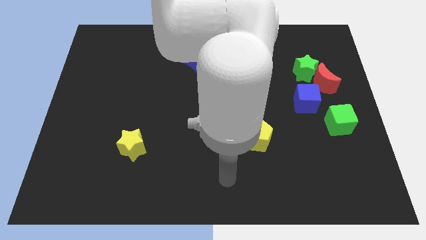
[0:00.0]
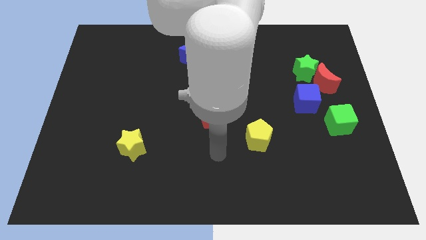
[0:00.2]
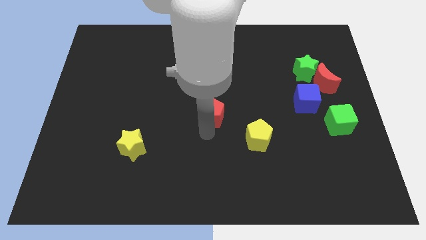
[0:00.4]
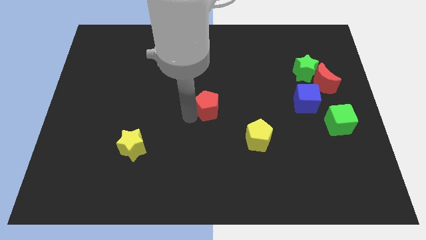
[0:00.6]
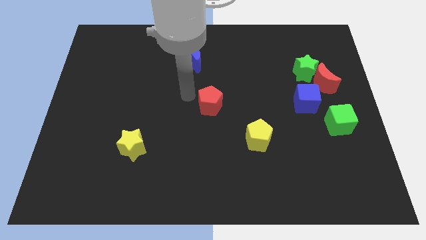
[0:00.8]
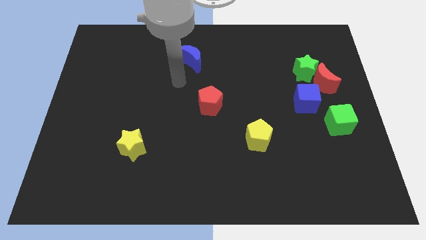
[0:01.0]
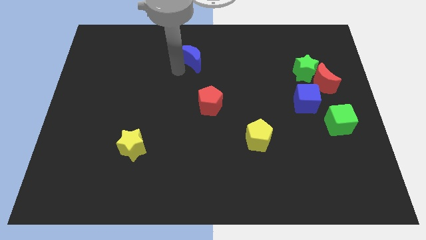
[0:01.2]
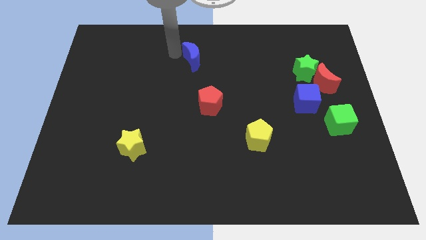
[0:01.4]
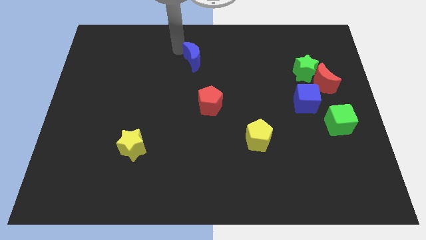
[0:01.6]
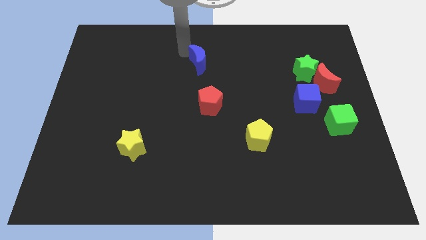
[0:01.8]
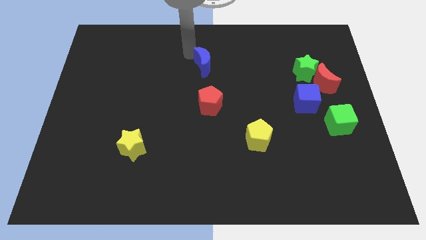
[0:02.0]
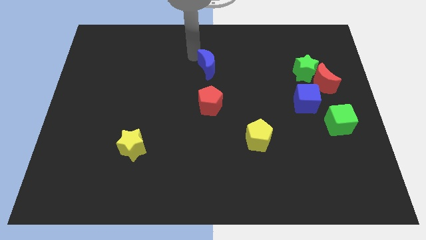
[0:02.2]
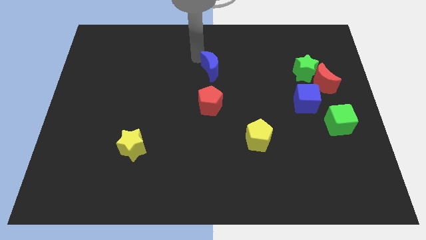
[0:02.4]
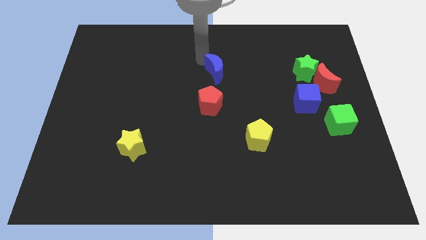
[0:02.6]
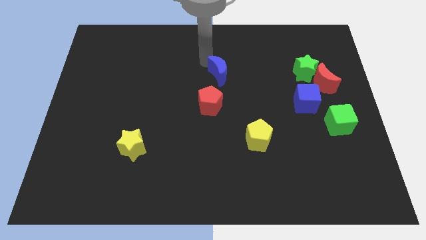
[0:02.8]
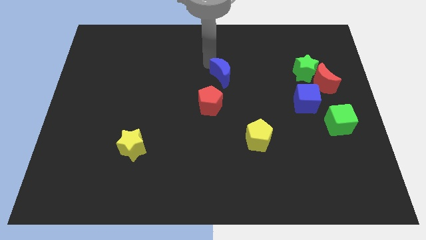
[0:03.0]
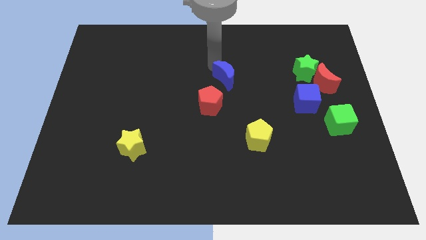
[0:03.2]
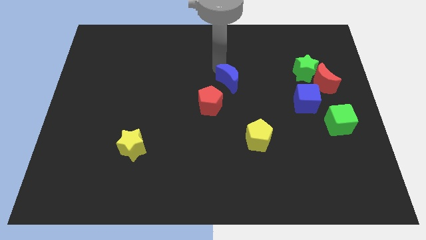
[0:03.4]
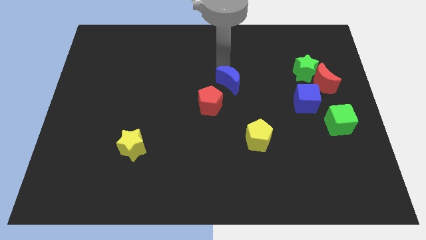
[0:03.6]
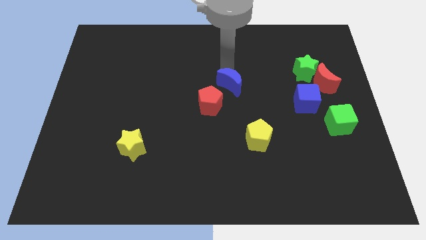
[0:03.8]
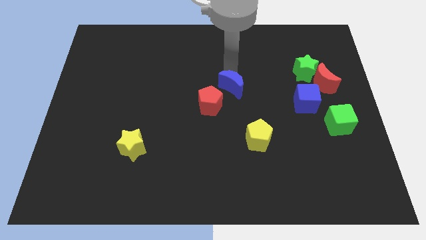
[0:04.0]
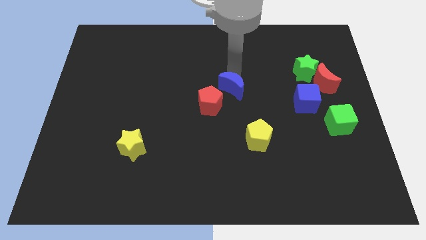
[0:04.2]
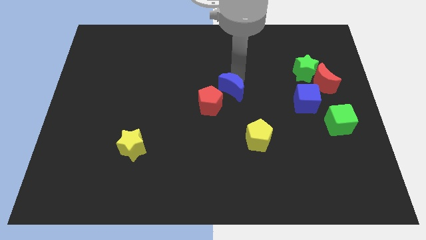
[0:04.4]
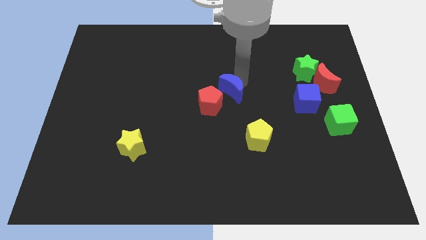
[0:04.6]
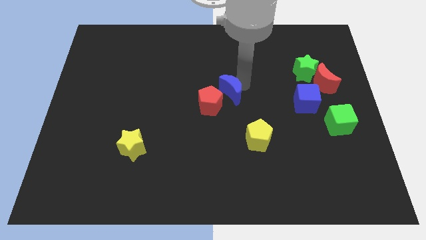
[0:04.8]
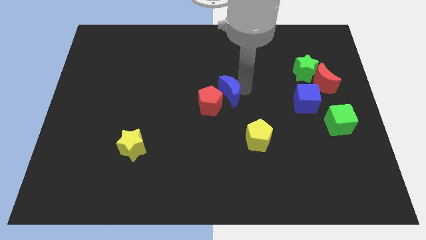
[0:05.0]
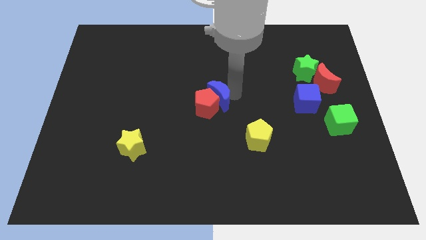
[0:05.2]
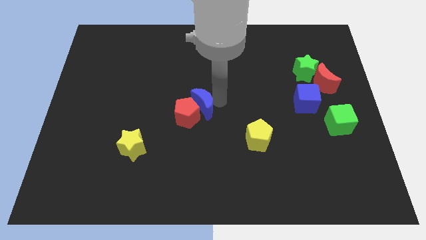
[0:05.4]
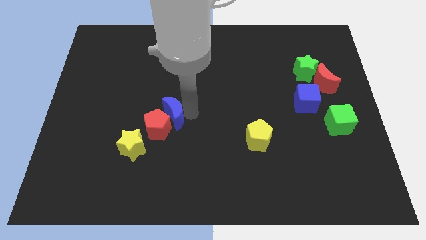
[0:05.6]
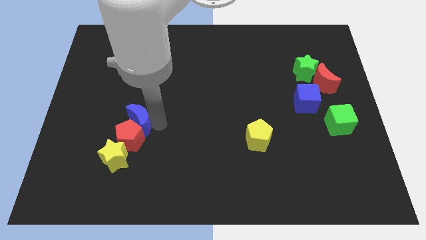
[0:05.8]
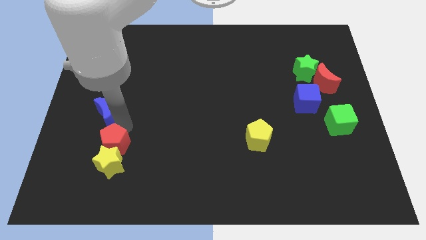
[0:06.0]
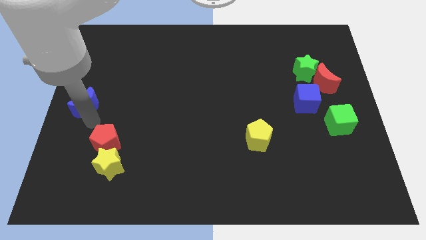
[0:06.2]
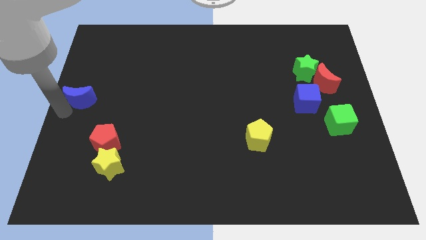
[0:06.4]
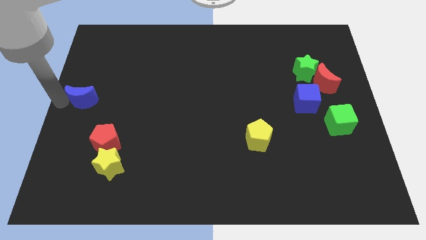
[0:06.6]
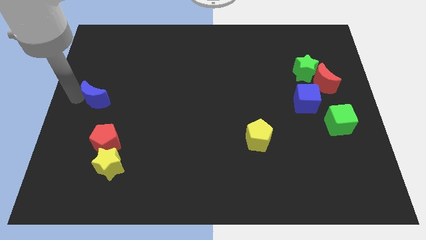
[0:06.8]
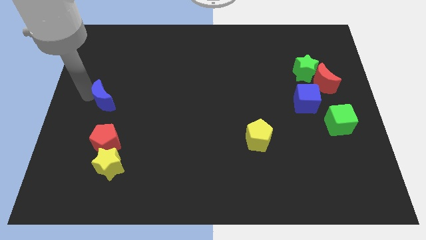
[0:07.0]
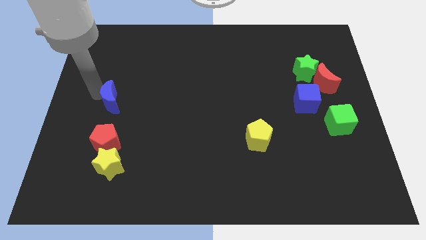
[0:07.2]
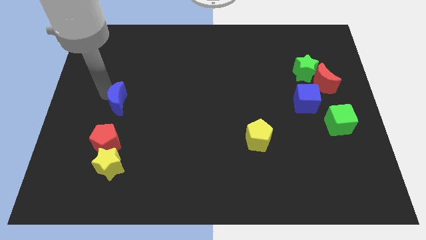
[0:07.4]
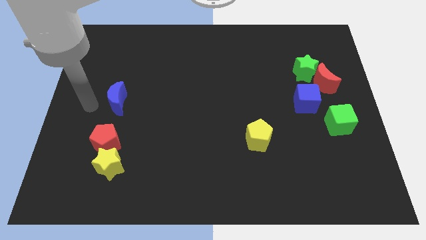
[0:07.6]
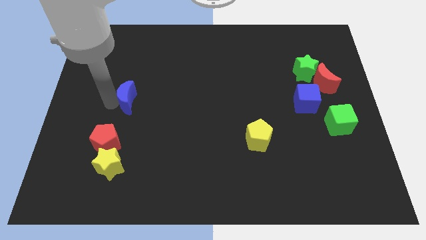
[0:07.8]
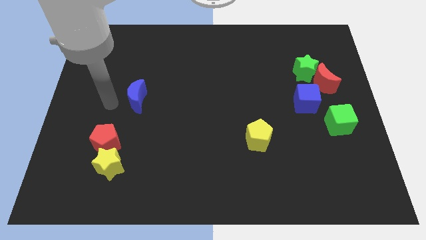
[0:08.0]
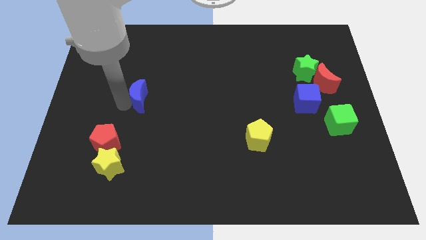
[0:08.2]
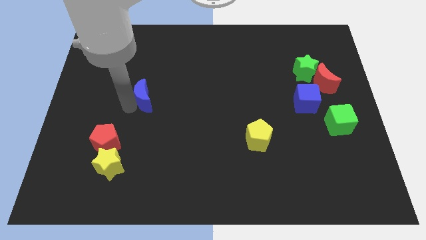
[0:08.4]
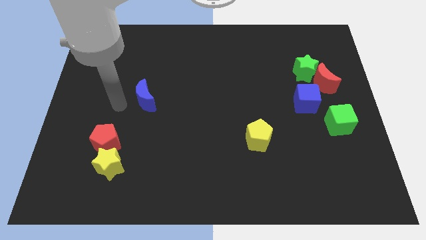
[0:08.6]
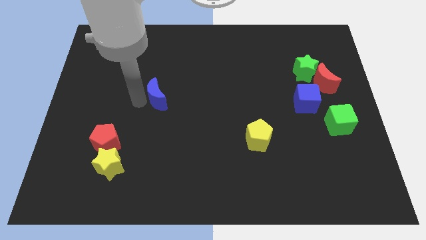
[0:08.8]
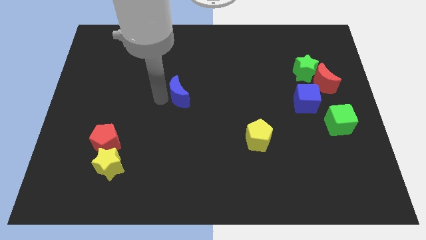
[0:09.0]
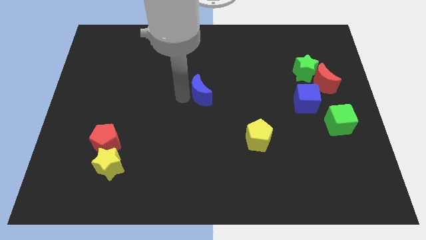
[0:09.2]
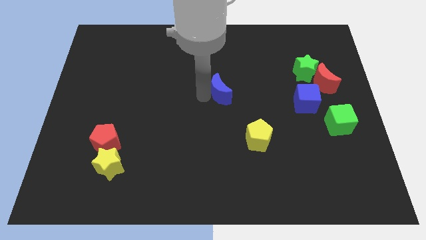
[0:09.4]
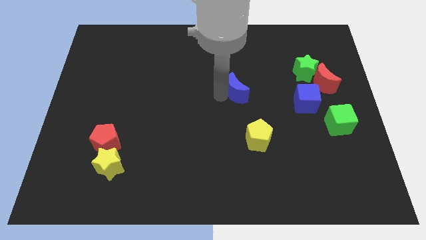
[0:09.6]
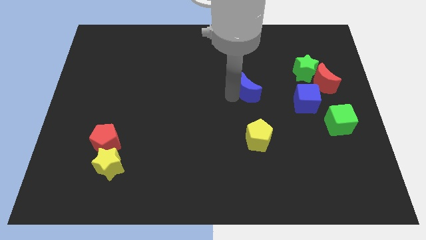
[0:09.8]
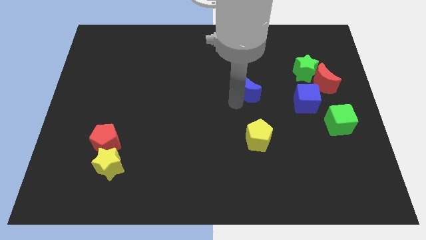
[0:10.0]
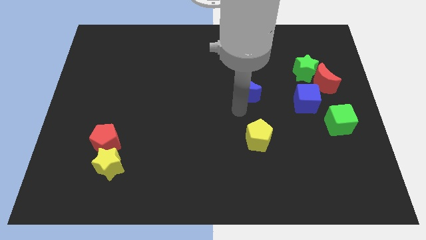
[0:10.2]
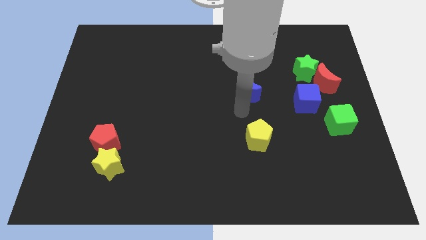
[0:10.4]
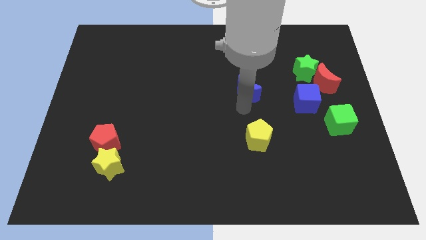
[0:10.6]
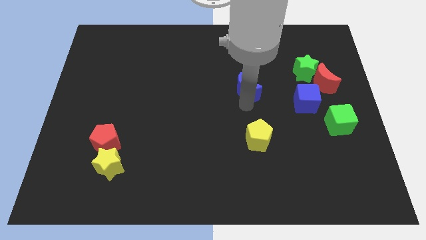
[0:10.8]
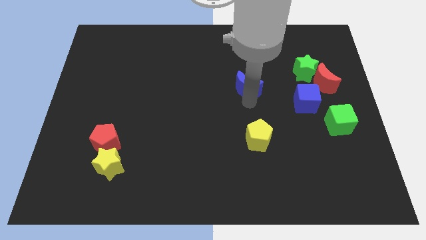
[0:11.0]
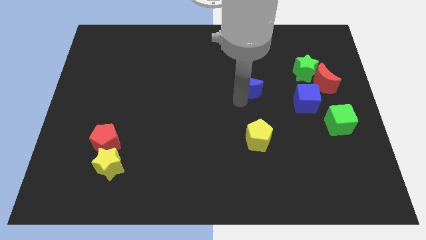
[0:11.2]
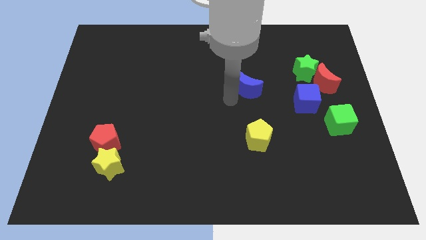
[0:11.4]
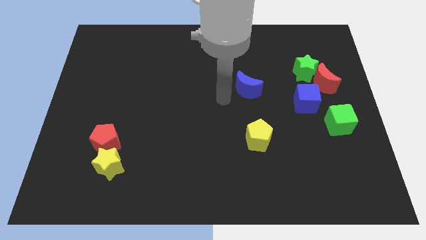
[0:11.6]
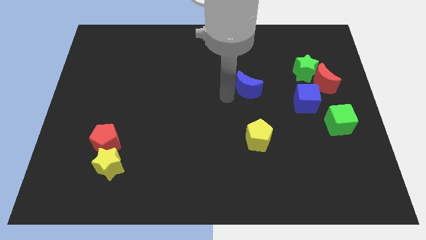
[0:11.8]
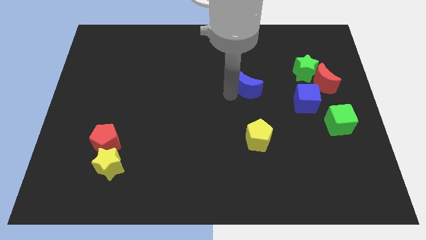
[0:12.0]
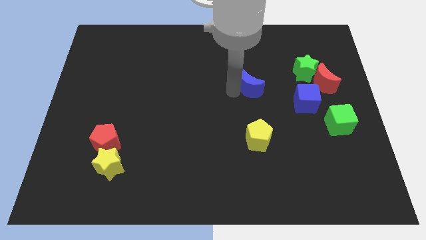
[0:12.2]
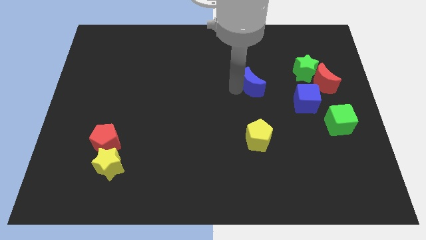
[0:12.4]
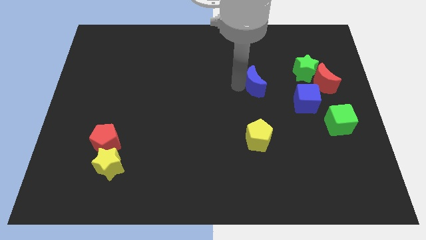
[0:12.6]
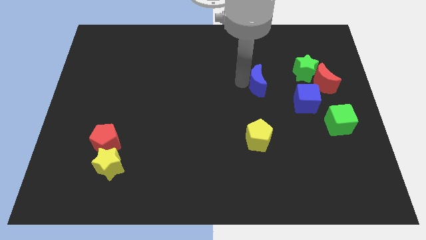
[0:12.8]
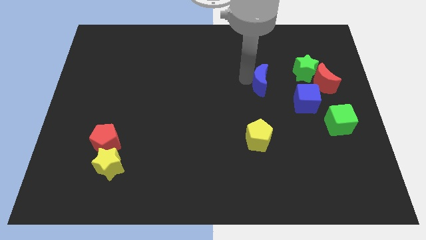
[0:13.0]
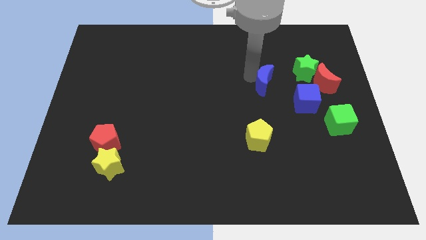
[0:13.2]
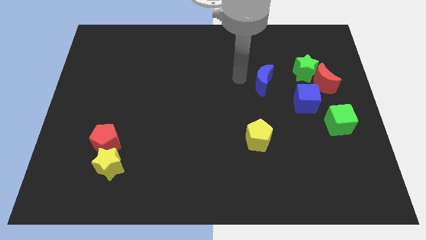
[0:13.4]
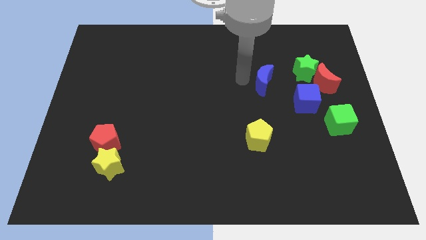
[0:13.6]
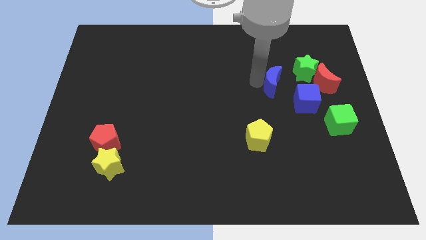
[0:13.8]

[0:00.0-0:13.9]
push the blue moon diagonally down and to the left of the green star

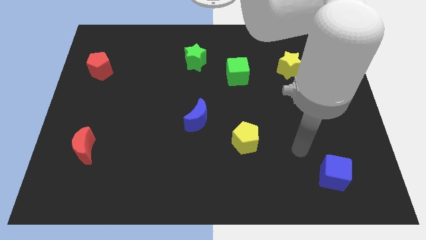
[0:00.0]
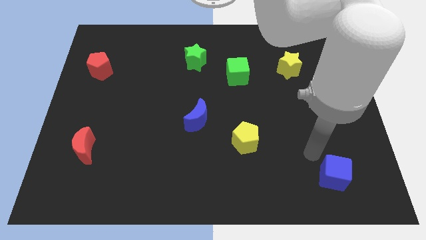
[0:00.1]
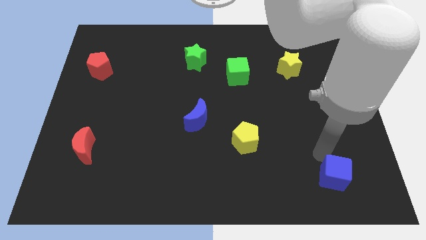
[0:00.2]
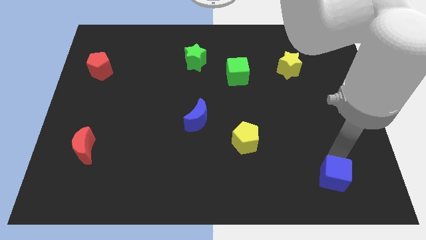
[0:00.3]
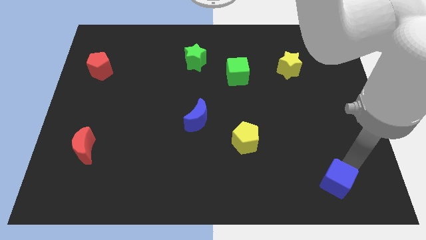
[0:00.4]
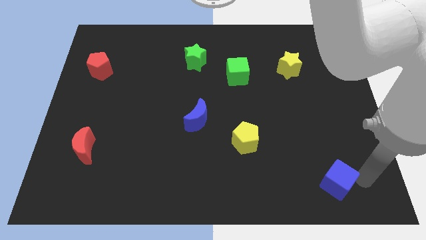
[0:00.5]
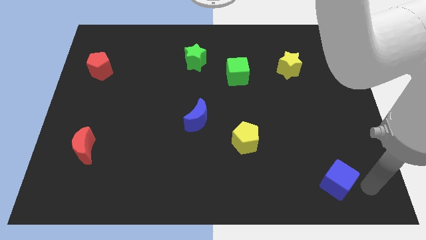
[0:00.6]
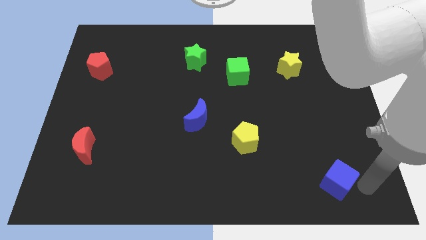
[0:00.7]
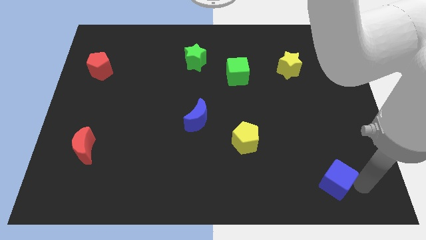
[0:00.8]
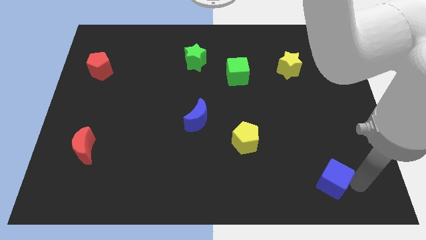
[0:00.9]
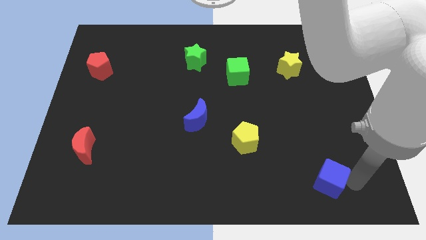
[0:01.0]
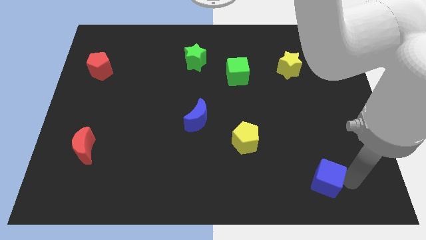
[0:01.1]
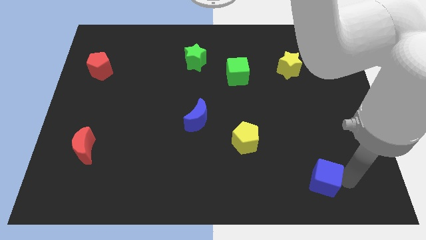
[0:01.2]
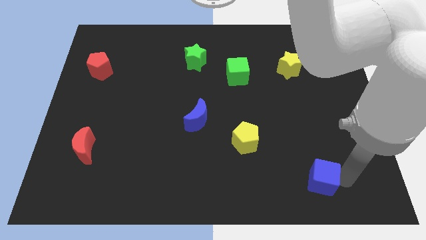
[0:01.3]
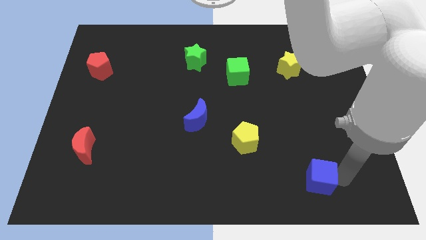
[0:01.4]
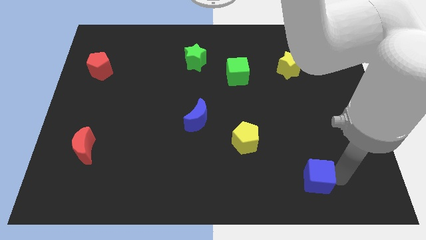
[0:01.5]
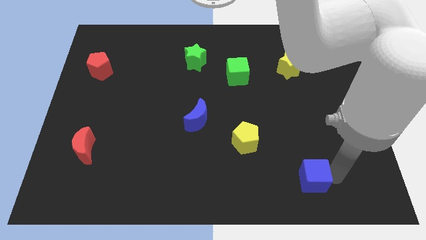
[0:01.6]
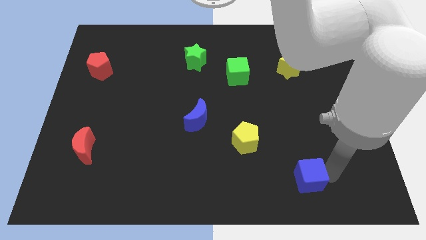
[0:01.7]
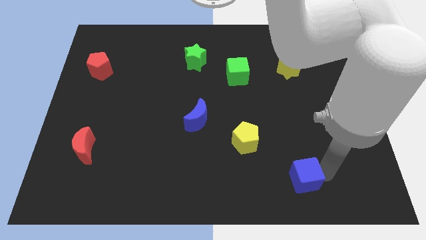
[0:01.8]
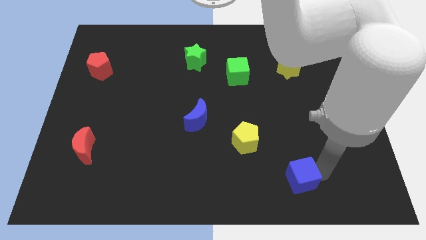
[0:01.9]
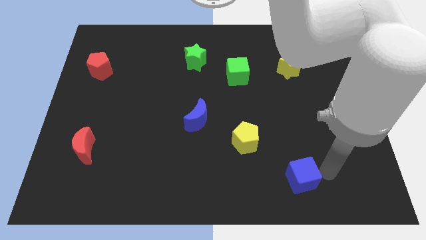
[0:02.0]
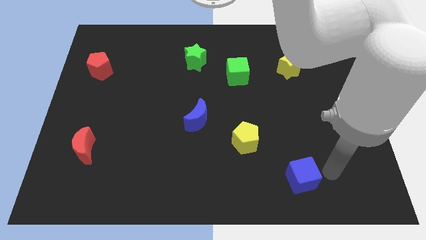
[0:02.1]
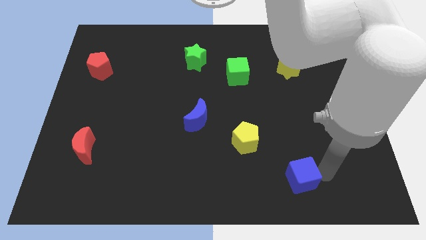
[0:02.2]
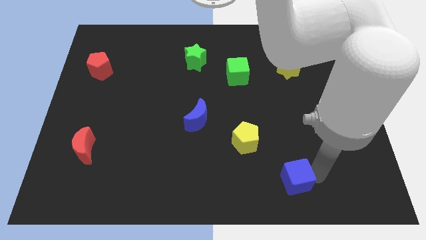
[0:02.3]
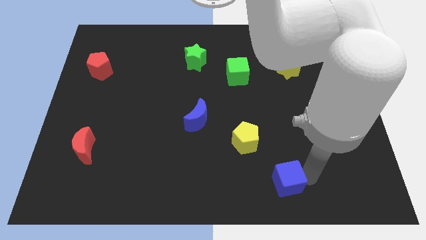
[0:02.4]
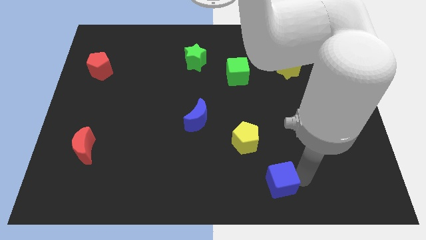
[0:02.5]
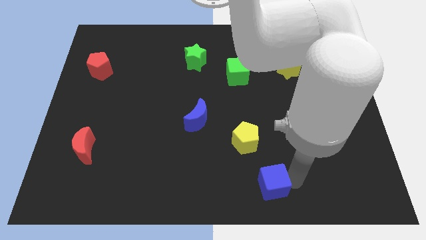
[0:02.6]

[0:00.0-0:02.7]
put the blue cube to the bottom side of the yellow pentagon
